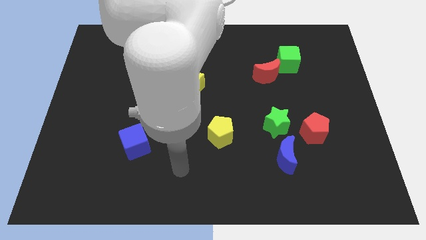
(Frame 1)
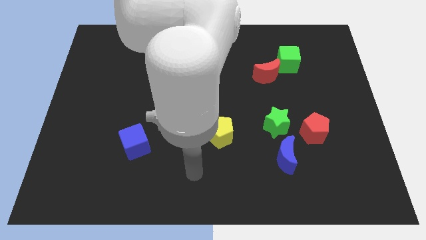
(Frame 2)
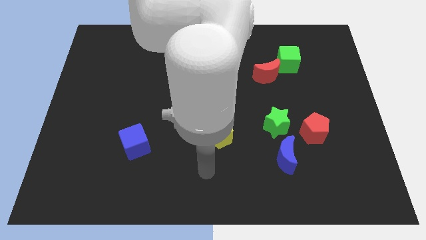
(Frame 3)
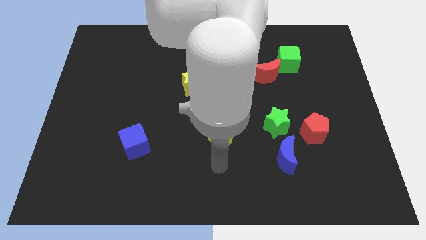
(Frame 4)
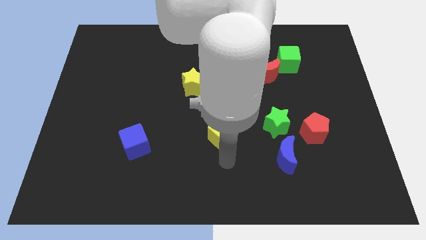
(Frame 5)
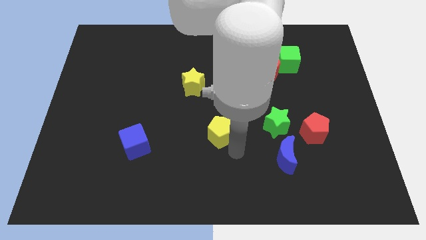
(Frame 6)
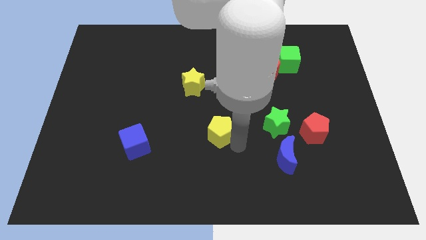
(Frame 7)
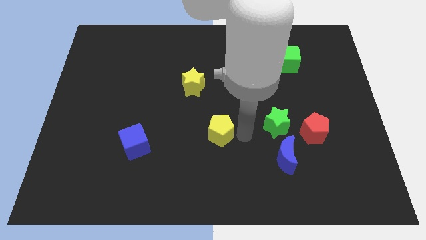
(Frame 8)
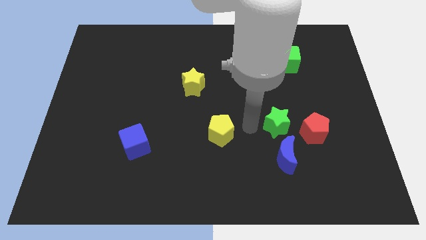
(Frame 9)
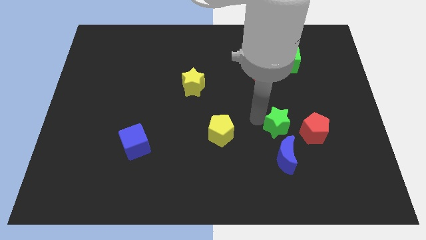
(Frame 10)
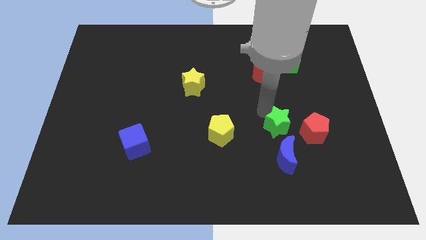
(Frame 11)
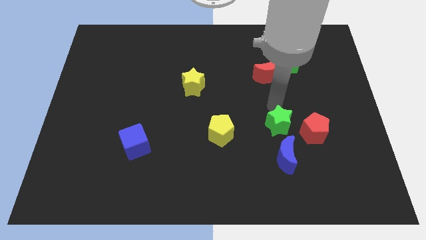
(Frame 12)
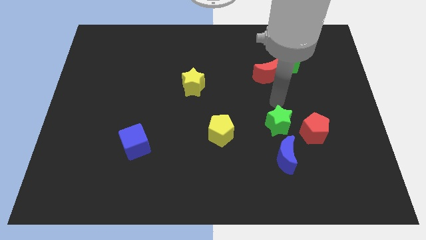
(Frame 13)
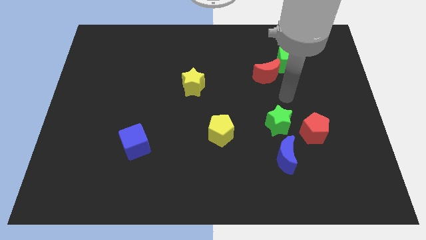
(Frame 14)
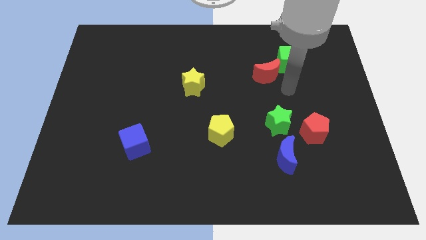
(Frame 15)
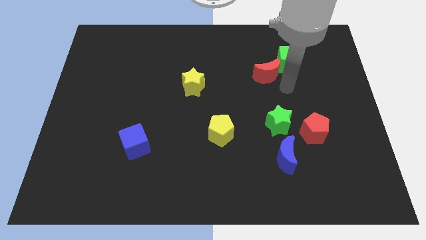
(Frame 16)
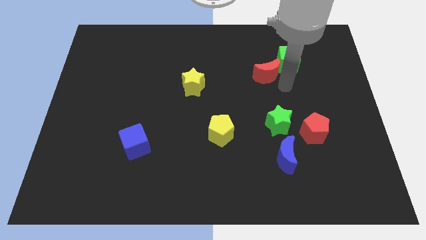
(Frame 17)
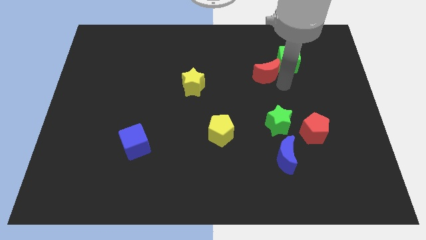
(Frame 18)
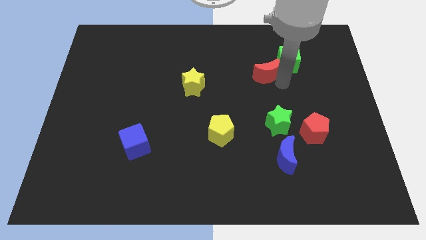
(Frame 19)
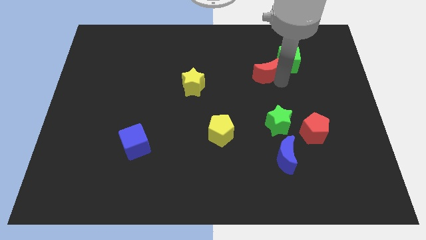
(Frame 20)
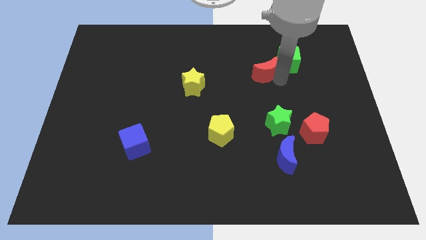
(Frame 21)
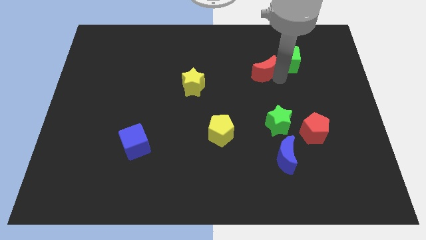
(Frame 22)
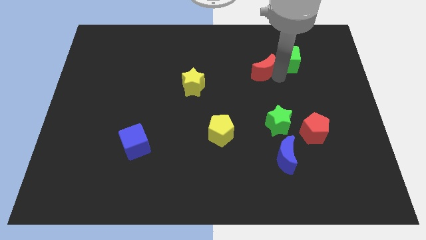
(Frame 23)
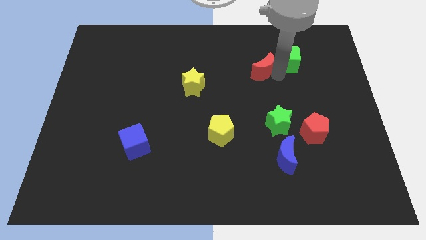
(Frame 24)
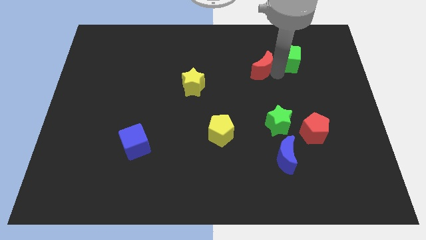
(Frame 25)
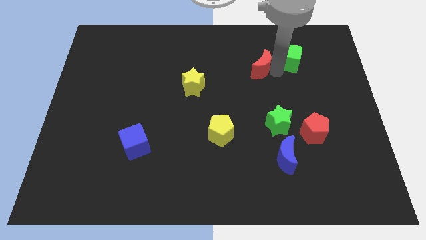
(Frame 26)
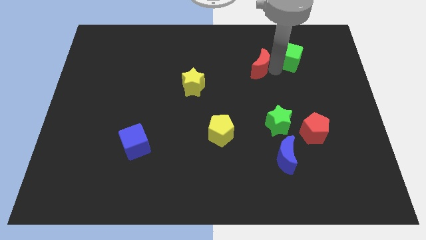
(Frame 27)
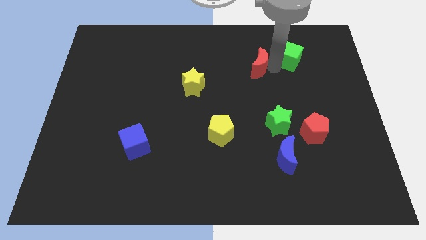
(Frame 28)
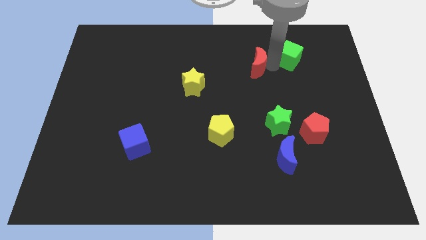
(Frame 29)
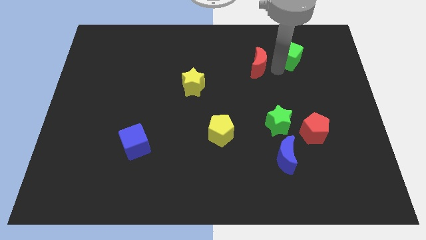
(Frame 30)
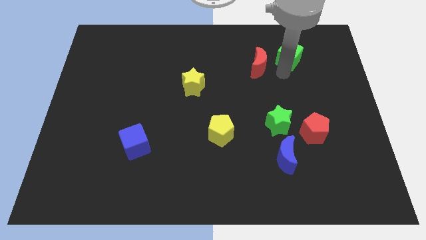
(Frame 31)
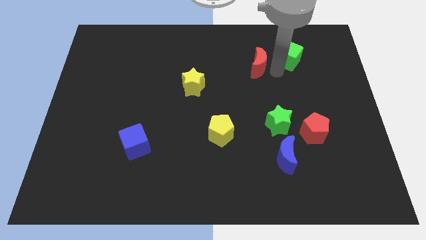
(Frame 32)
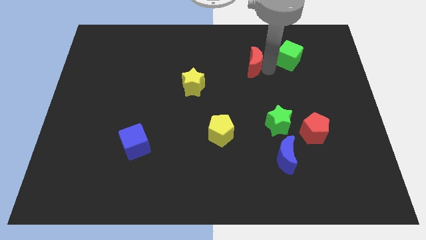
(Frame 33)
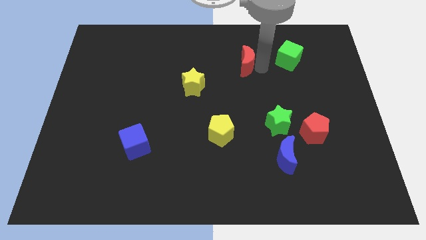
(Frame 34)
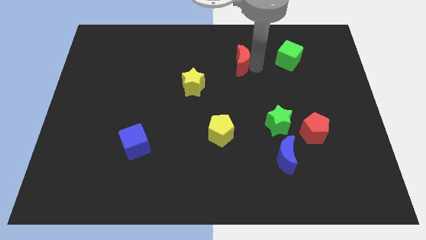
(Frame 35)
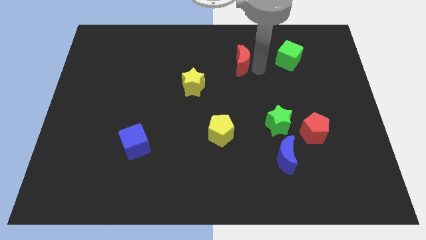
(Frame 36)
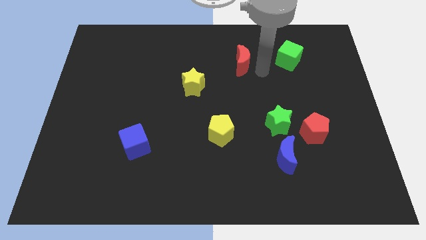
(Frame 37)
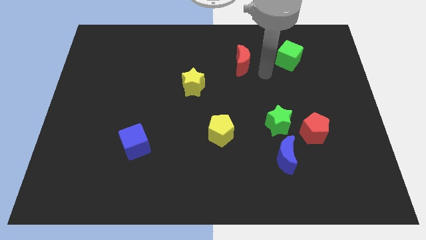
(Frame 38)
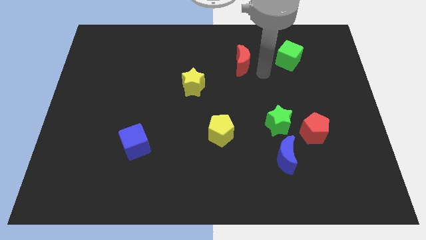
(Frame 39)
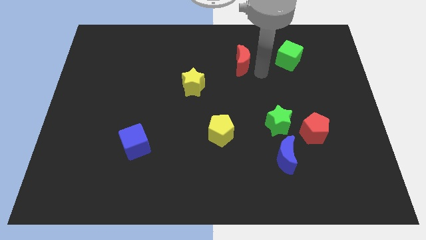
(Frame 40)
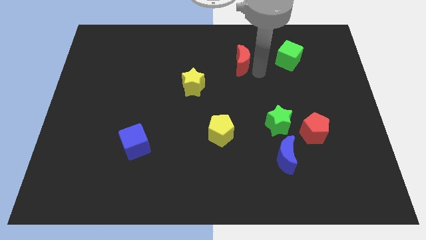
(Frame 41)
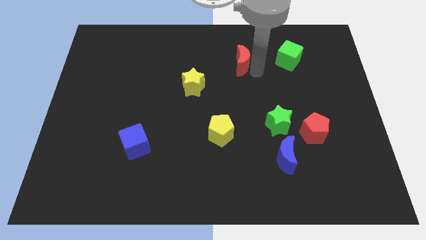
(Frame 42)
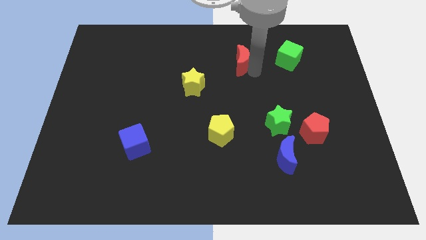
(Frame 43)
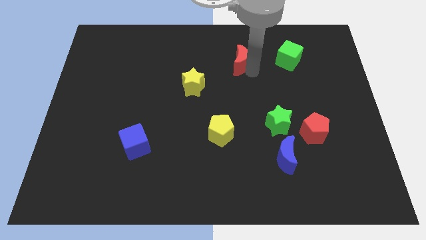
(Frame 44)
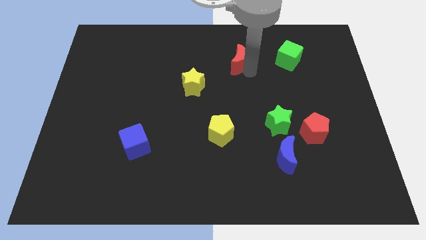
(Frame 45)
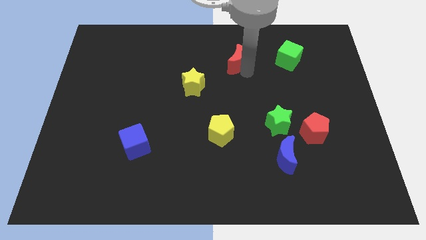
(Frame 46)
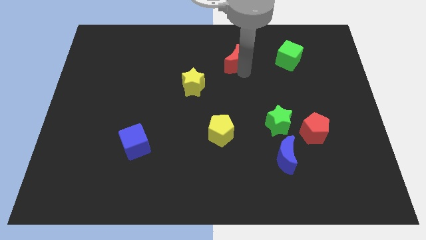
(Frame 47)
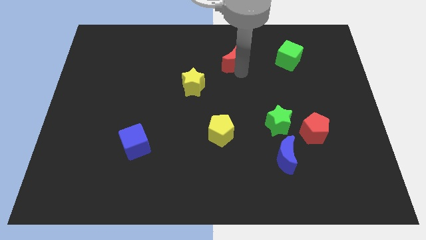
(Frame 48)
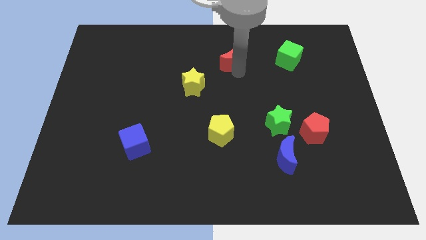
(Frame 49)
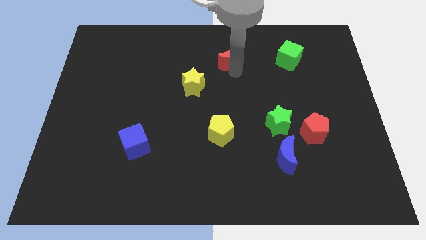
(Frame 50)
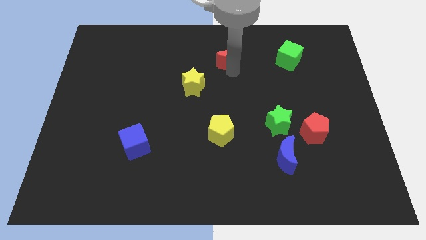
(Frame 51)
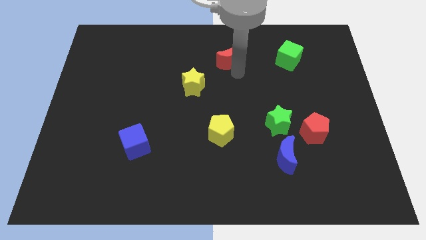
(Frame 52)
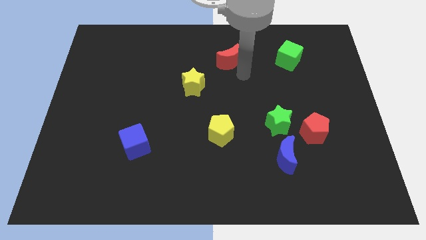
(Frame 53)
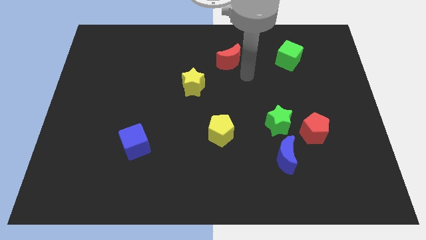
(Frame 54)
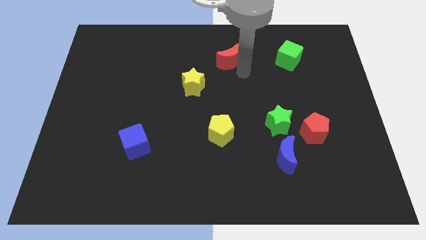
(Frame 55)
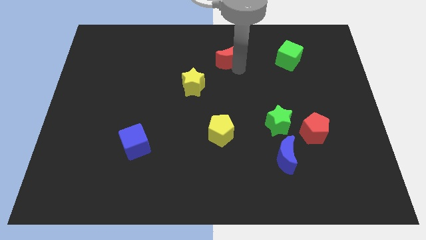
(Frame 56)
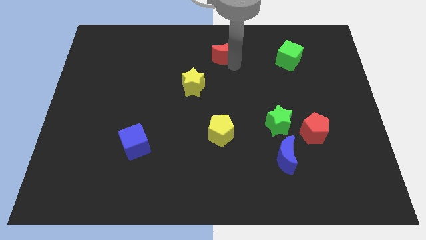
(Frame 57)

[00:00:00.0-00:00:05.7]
put the red moon to the towards your base

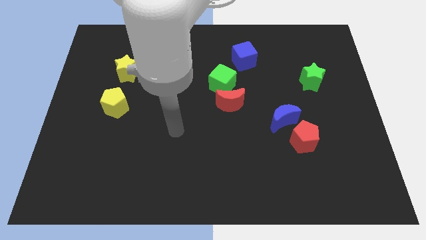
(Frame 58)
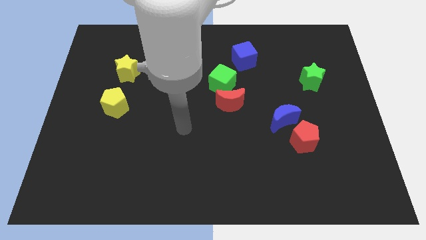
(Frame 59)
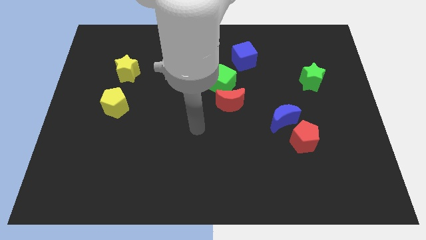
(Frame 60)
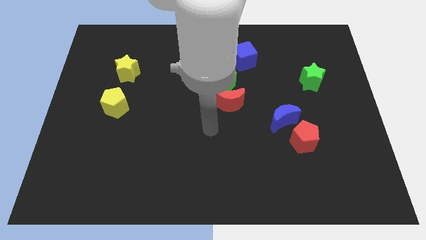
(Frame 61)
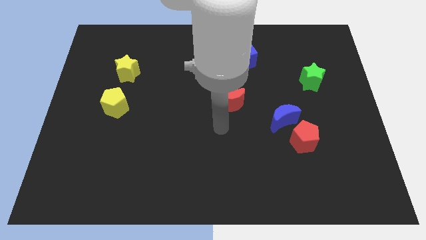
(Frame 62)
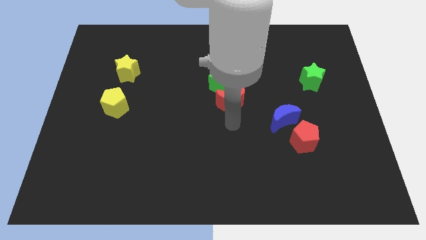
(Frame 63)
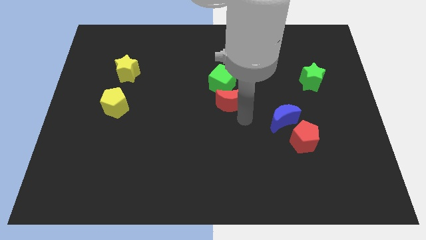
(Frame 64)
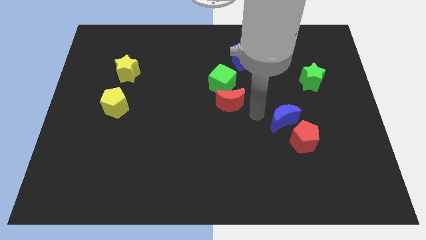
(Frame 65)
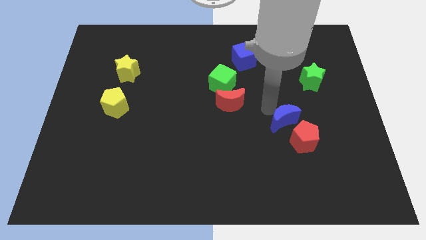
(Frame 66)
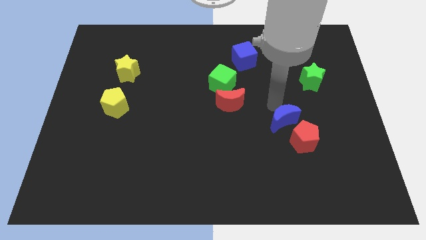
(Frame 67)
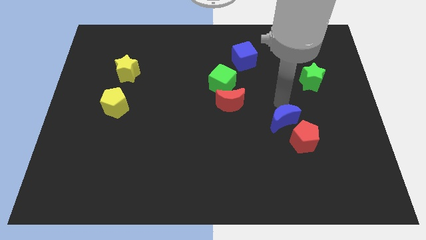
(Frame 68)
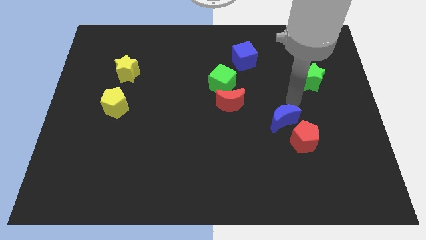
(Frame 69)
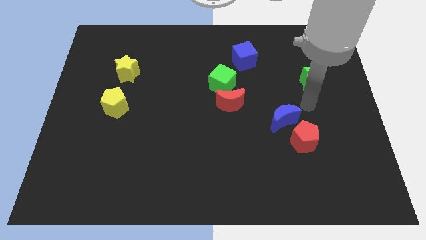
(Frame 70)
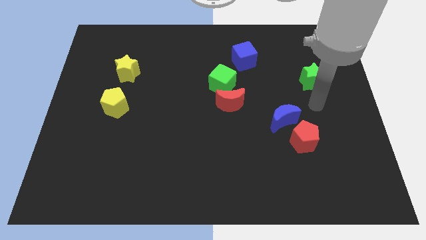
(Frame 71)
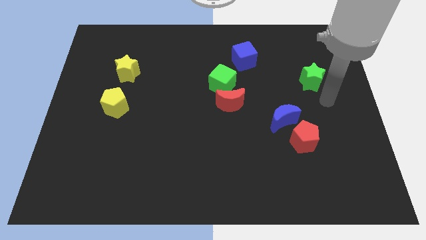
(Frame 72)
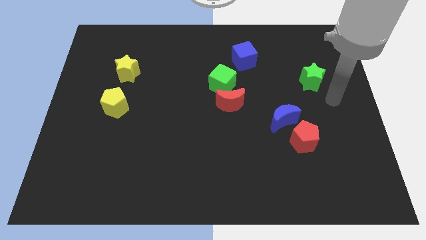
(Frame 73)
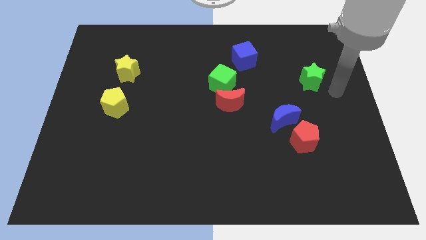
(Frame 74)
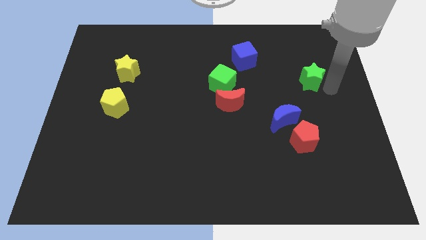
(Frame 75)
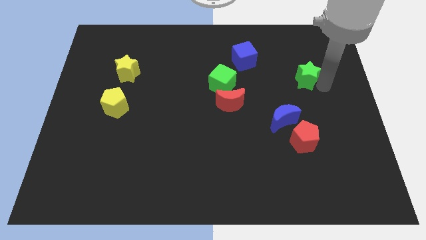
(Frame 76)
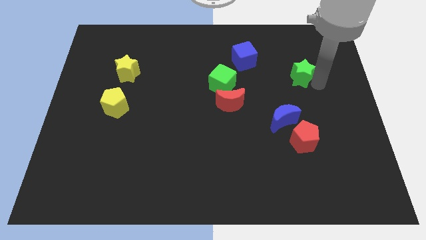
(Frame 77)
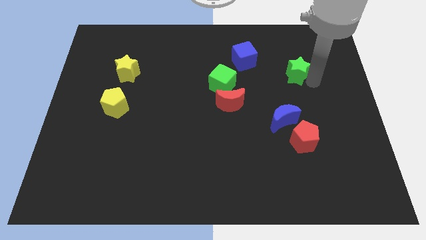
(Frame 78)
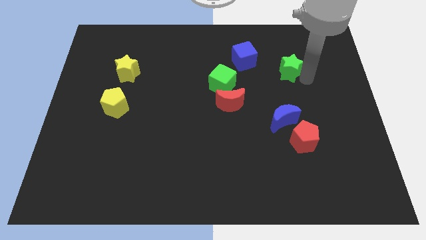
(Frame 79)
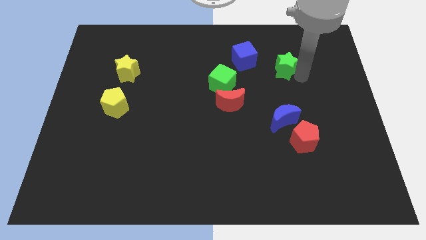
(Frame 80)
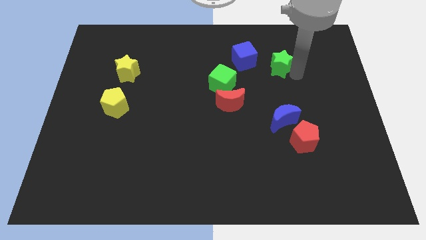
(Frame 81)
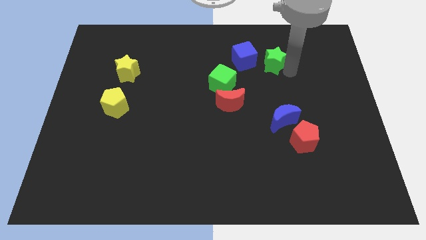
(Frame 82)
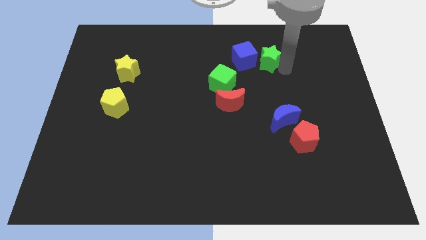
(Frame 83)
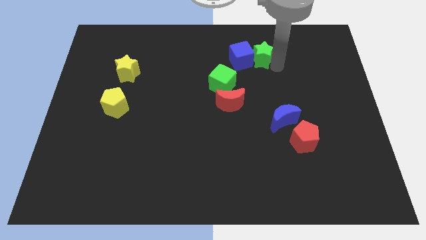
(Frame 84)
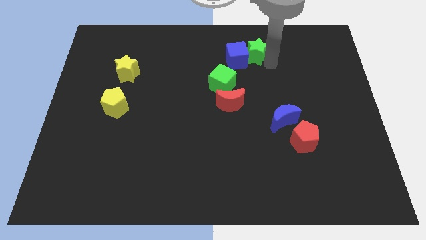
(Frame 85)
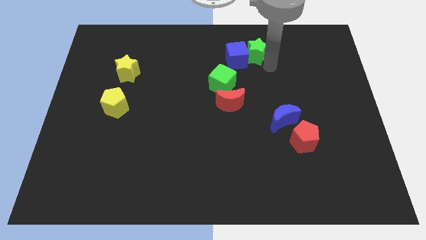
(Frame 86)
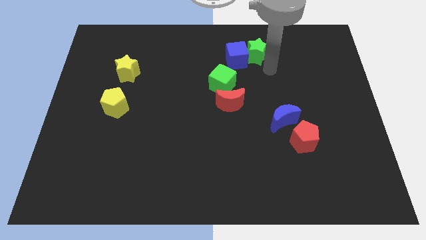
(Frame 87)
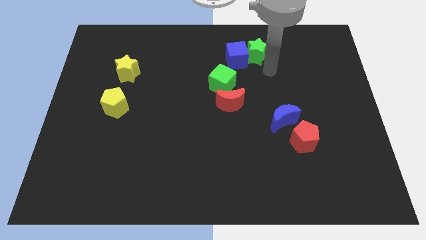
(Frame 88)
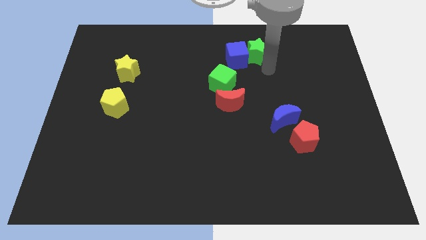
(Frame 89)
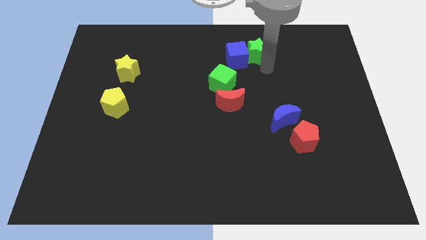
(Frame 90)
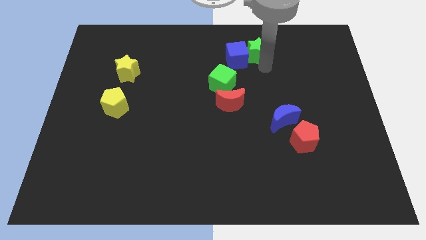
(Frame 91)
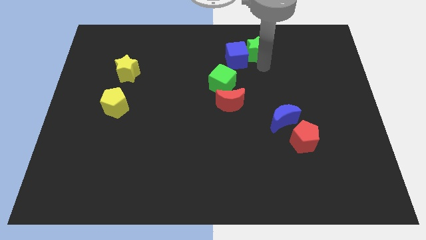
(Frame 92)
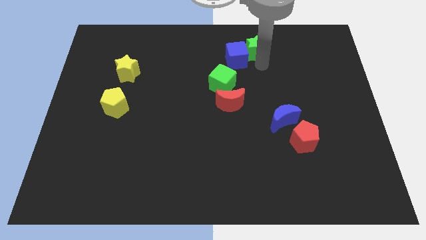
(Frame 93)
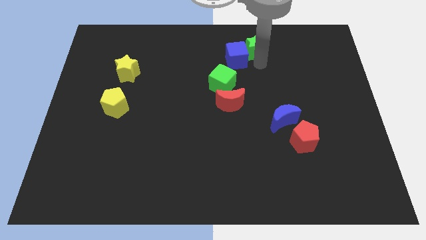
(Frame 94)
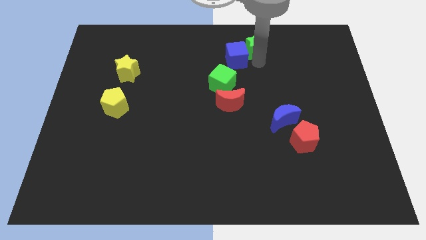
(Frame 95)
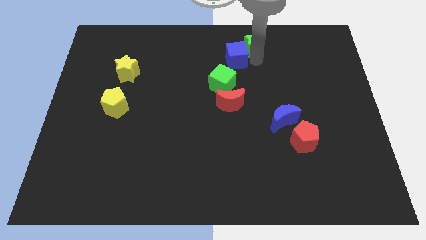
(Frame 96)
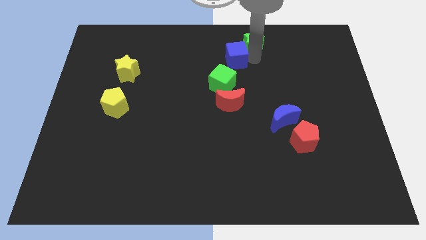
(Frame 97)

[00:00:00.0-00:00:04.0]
slide the green star to the top
